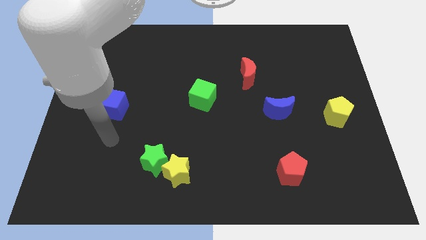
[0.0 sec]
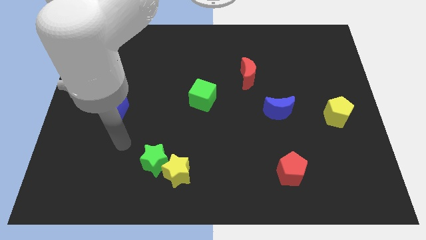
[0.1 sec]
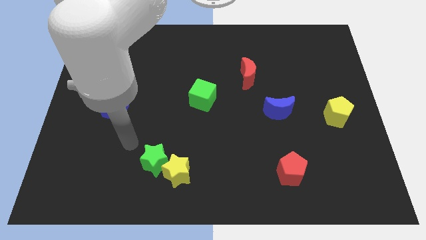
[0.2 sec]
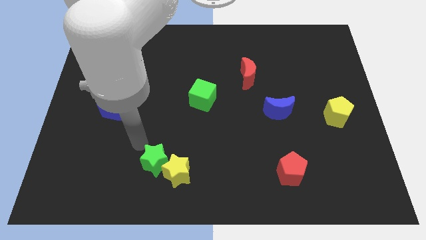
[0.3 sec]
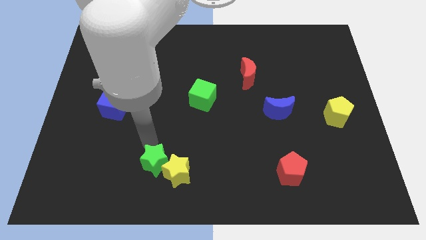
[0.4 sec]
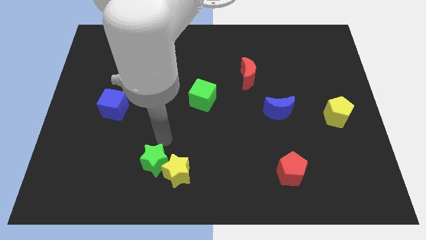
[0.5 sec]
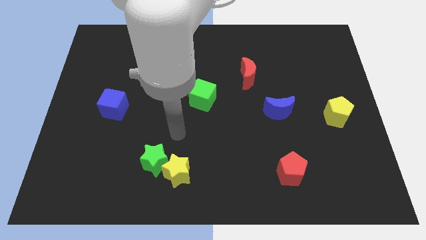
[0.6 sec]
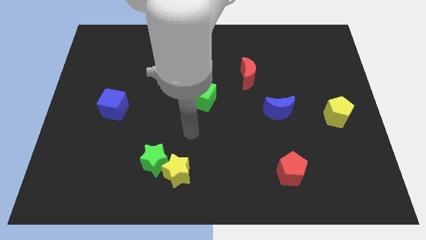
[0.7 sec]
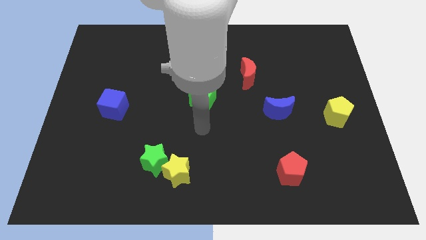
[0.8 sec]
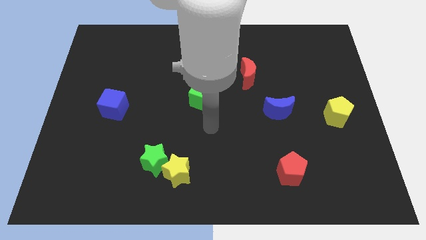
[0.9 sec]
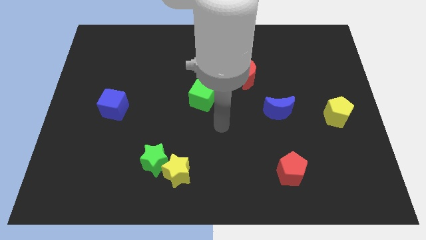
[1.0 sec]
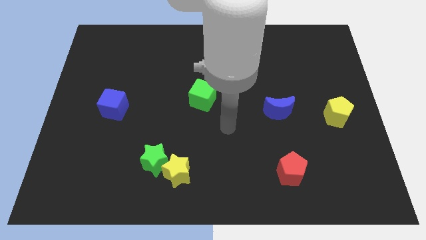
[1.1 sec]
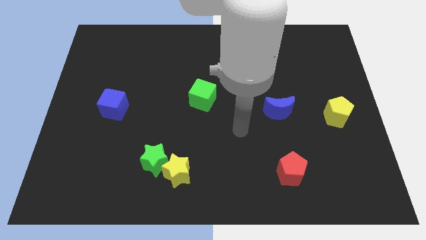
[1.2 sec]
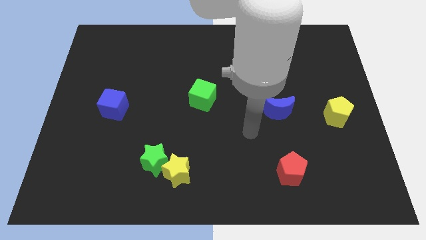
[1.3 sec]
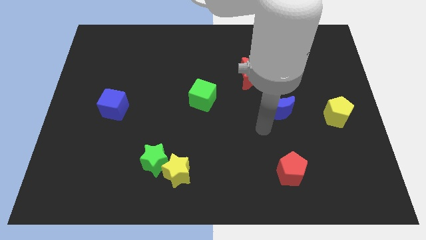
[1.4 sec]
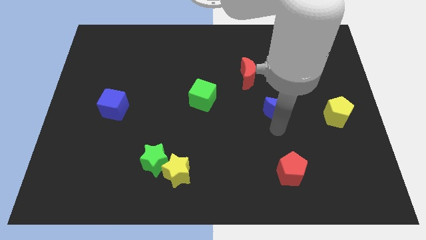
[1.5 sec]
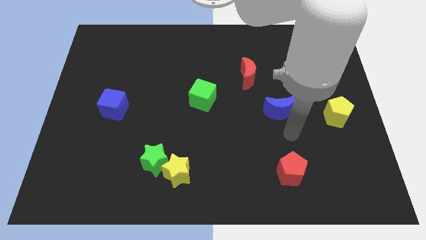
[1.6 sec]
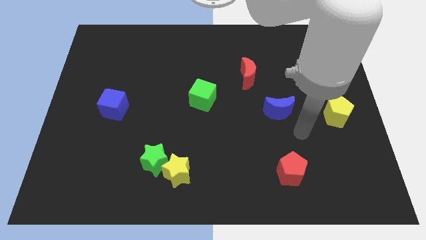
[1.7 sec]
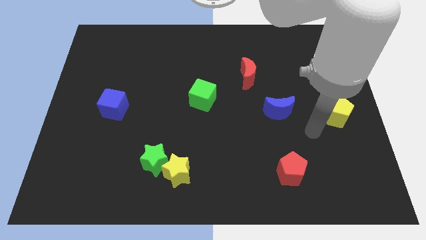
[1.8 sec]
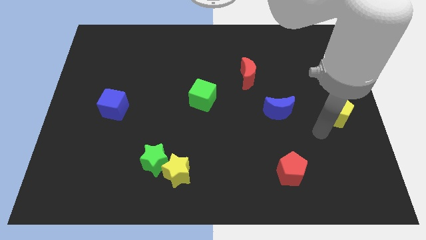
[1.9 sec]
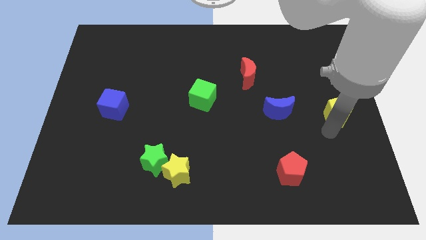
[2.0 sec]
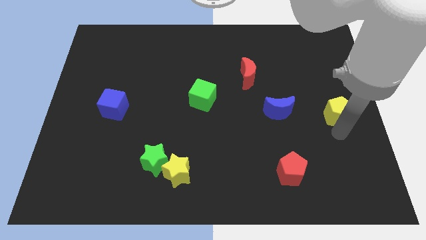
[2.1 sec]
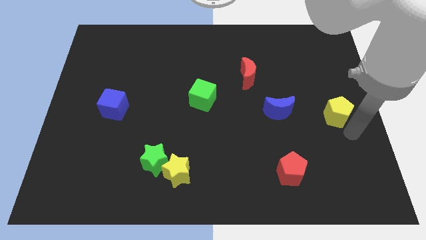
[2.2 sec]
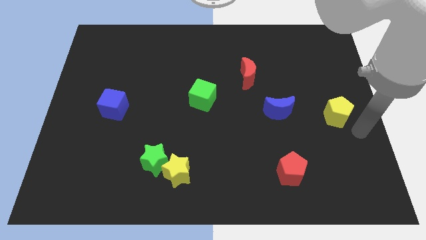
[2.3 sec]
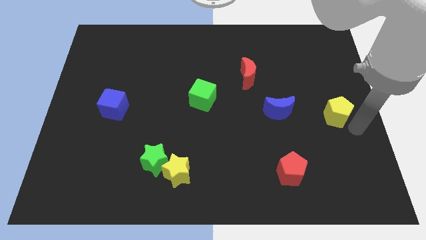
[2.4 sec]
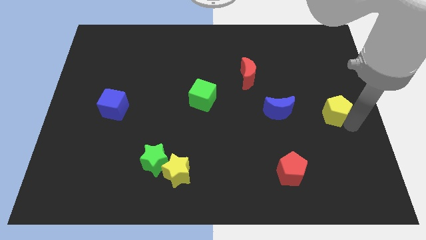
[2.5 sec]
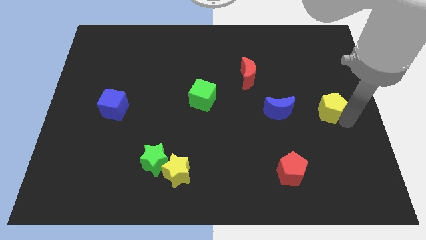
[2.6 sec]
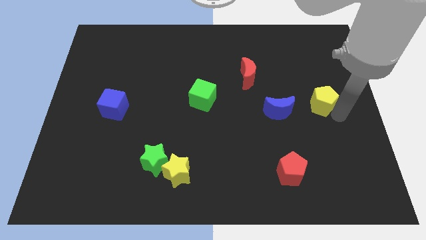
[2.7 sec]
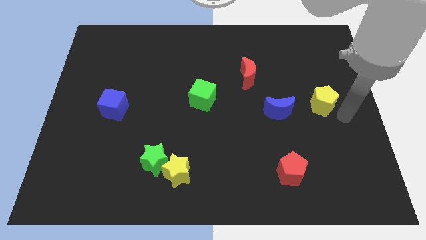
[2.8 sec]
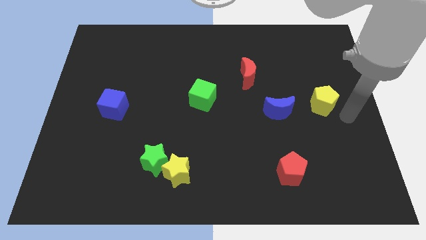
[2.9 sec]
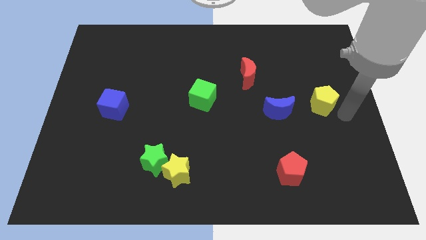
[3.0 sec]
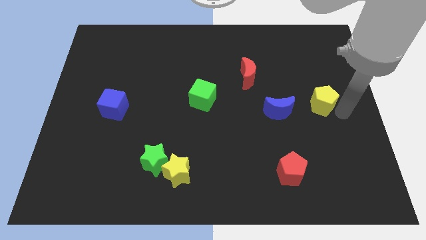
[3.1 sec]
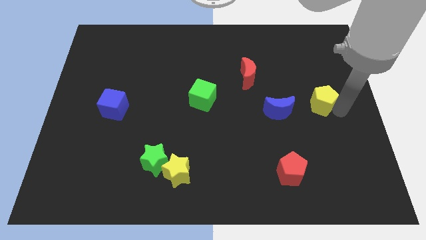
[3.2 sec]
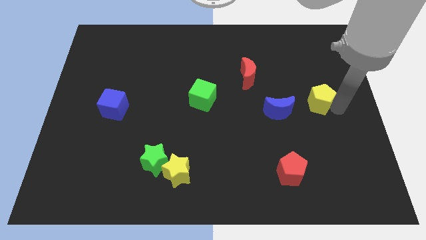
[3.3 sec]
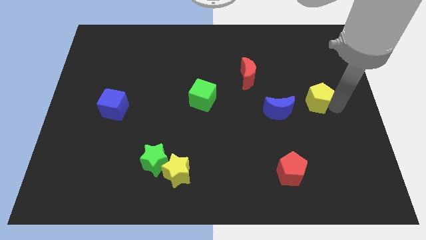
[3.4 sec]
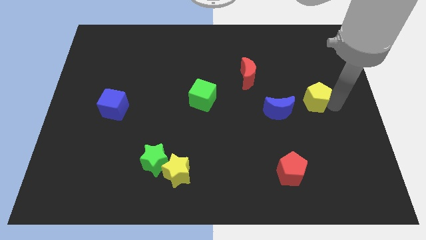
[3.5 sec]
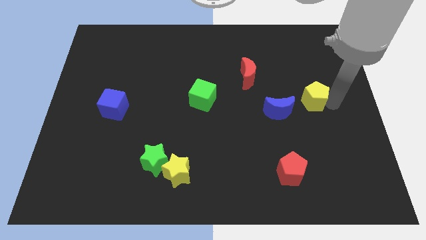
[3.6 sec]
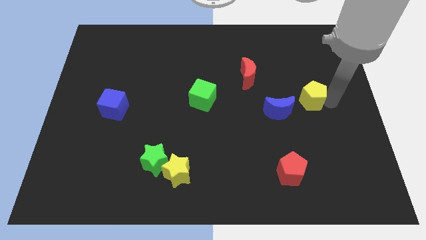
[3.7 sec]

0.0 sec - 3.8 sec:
slightly move the yellow pentagon upwards and to the left diagonally

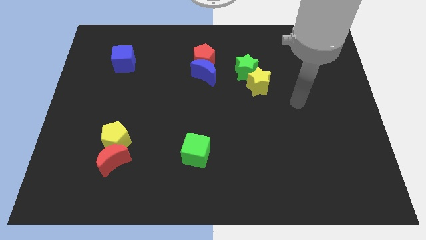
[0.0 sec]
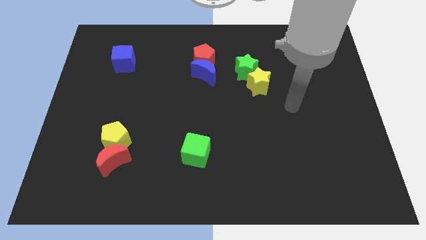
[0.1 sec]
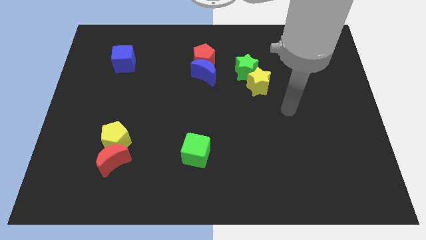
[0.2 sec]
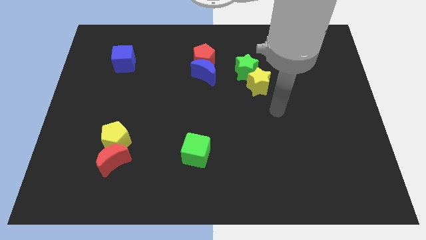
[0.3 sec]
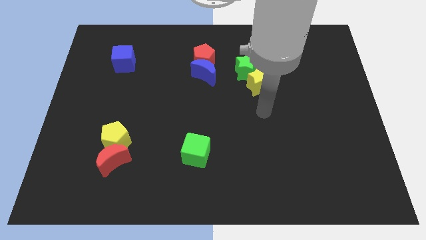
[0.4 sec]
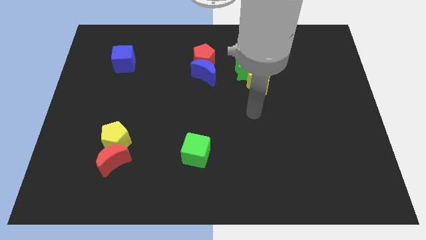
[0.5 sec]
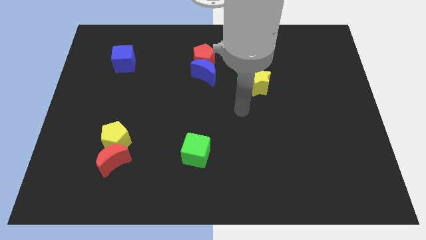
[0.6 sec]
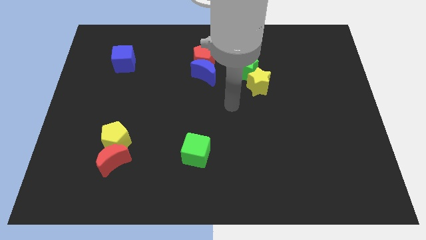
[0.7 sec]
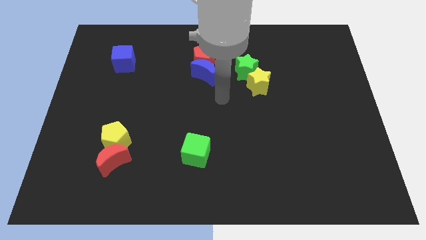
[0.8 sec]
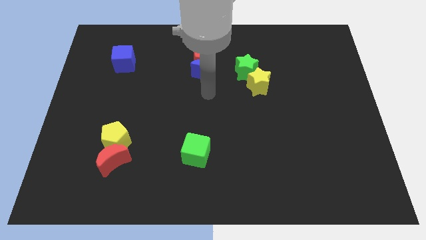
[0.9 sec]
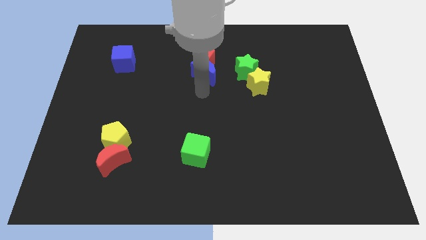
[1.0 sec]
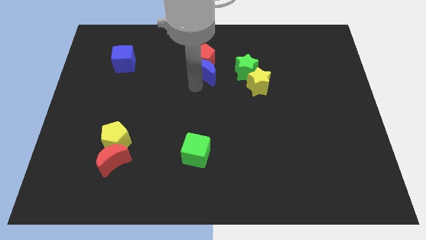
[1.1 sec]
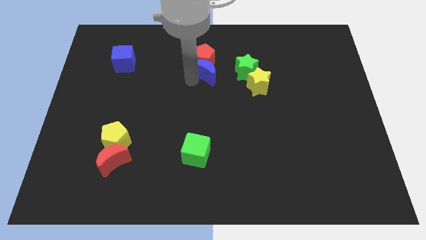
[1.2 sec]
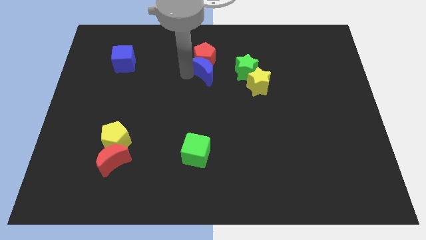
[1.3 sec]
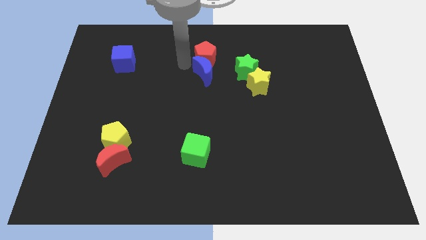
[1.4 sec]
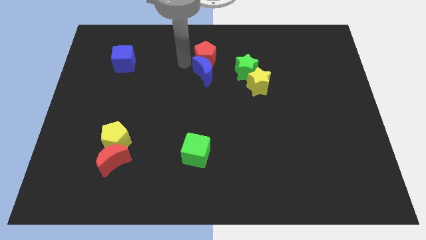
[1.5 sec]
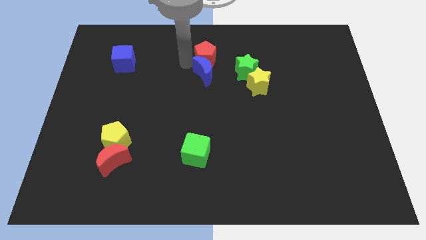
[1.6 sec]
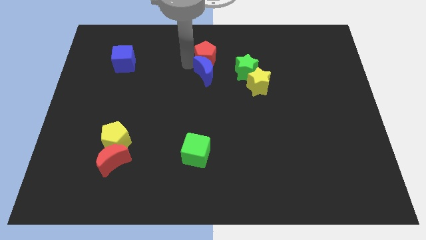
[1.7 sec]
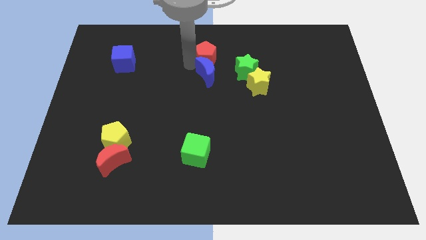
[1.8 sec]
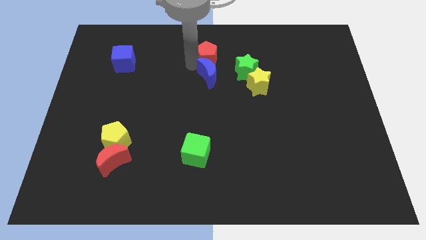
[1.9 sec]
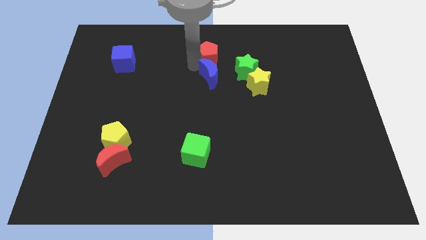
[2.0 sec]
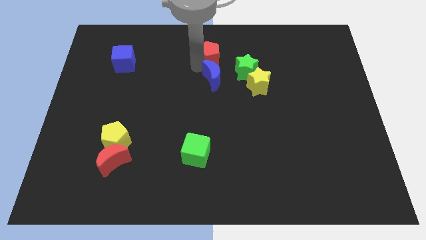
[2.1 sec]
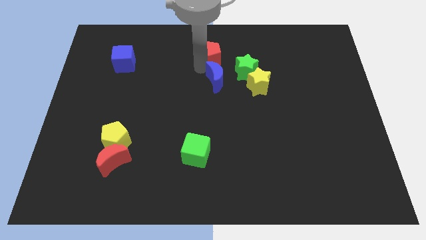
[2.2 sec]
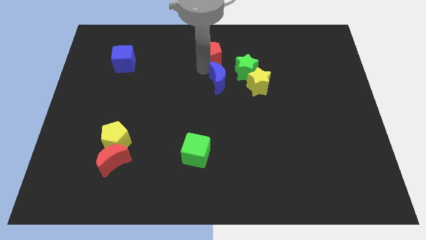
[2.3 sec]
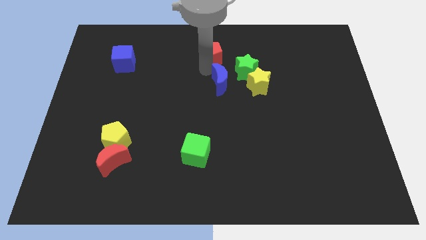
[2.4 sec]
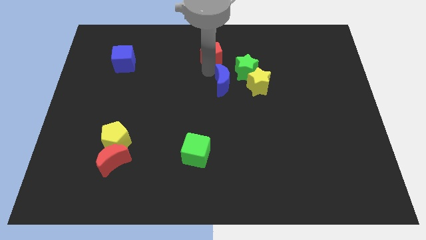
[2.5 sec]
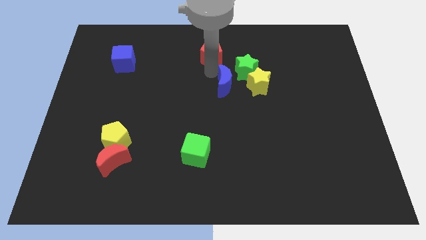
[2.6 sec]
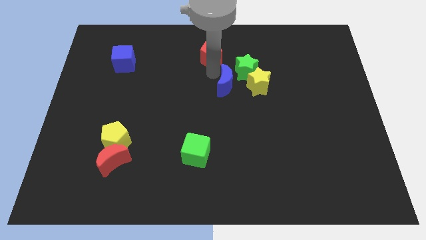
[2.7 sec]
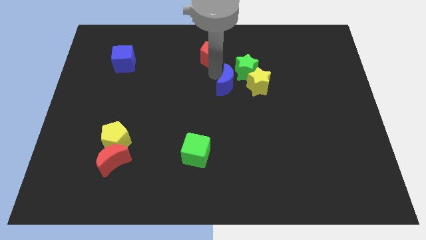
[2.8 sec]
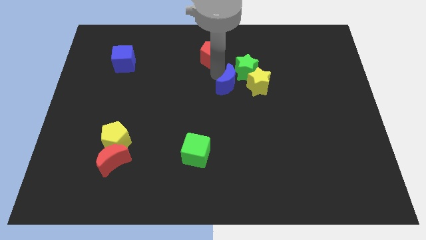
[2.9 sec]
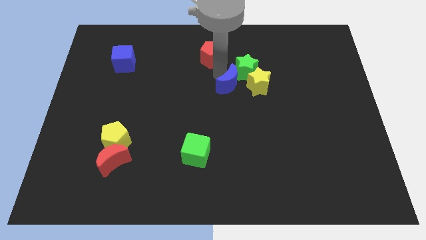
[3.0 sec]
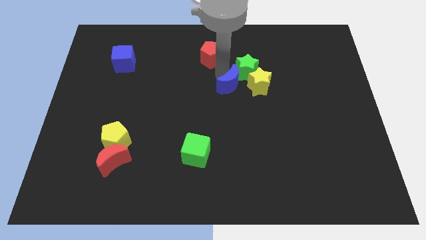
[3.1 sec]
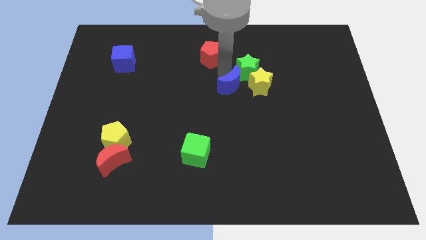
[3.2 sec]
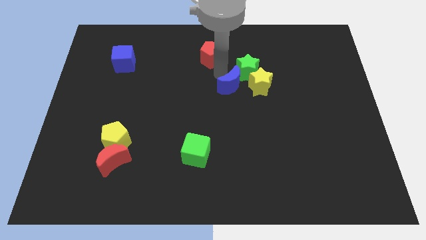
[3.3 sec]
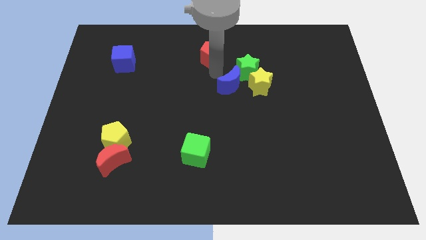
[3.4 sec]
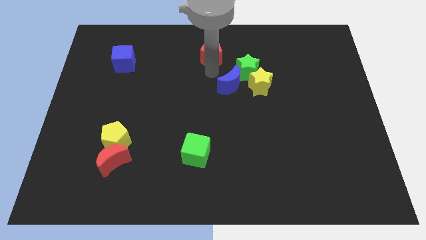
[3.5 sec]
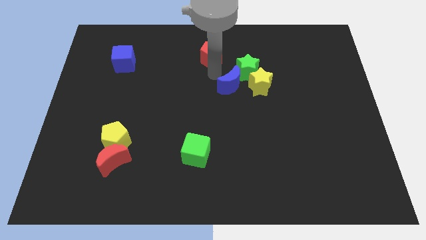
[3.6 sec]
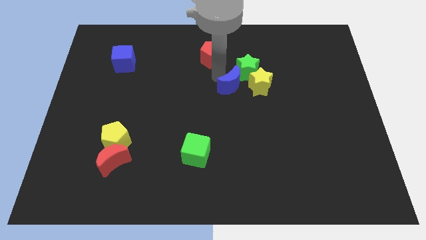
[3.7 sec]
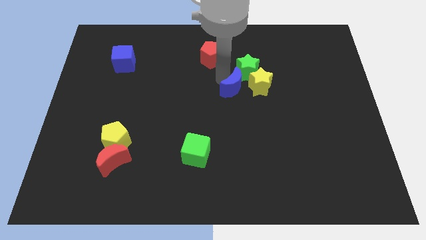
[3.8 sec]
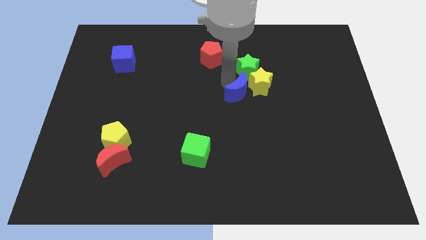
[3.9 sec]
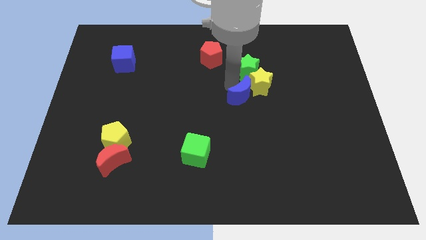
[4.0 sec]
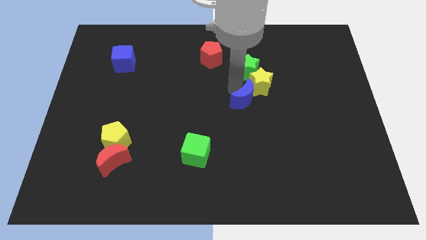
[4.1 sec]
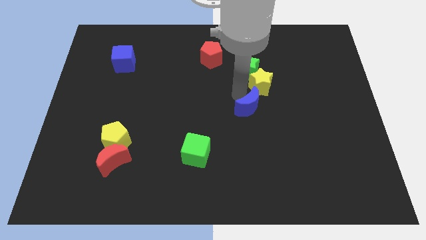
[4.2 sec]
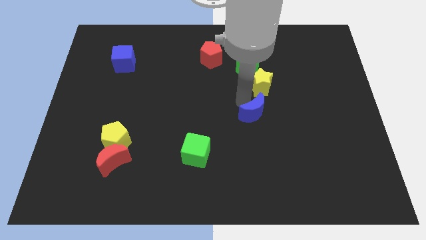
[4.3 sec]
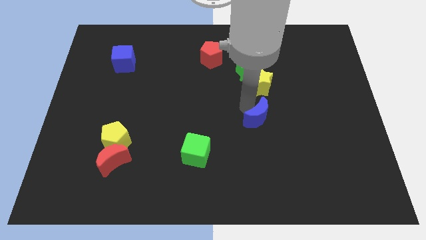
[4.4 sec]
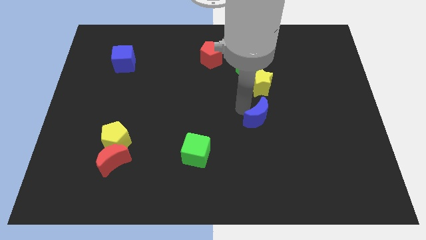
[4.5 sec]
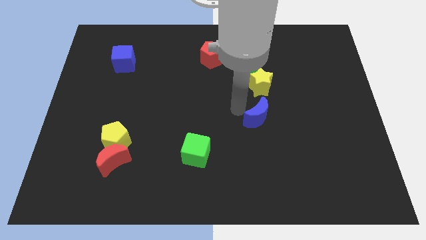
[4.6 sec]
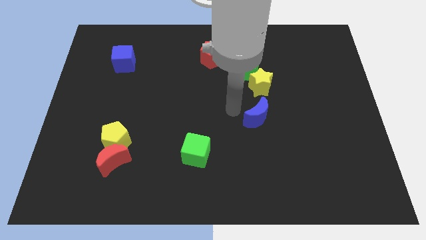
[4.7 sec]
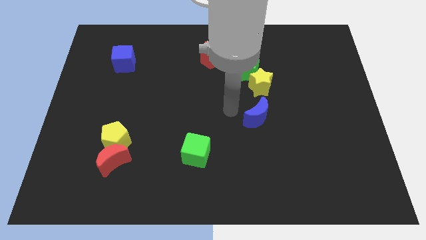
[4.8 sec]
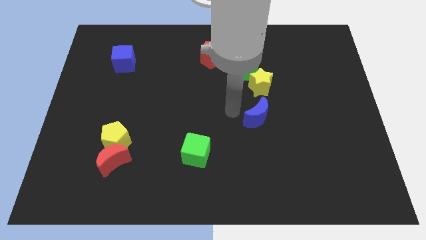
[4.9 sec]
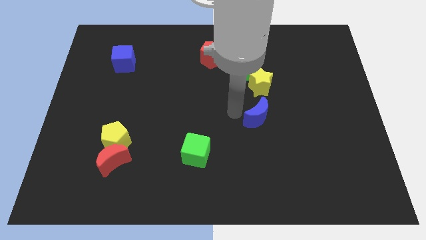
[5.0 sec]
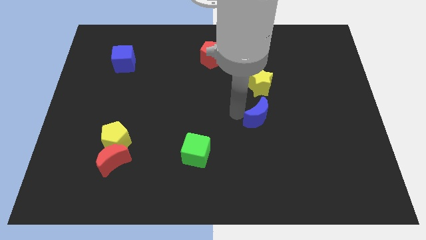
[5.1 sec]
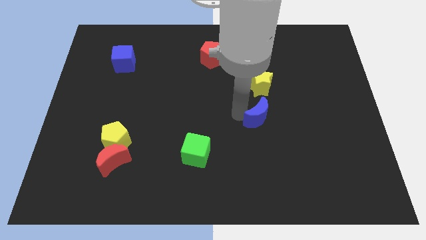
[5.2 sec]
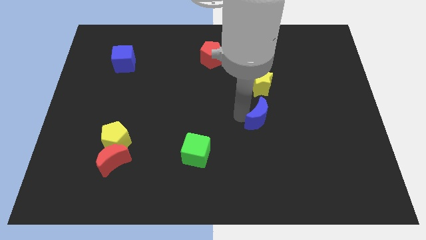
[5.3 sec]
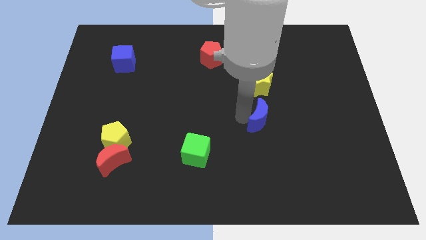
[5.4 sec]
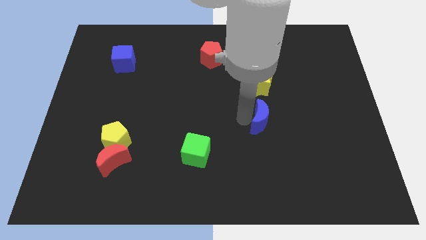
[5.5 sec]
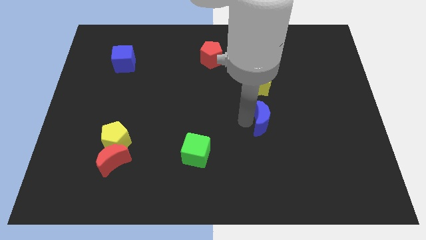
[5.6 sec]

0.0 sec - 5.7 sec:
slide the blue moon downwards and then to the right
